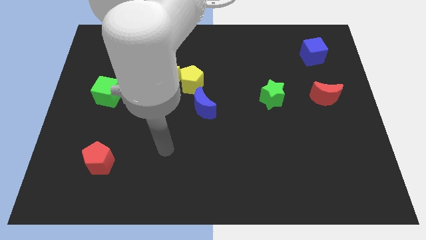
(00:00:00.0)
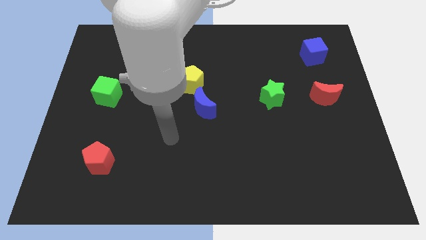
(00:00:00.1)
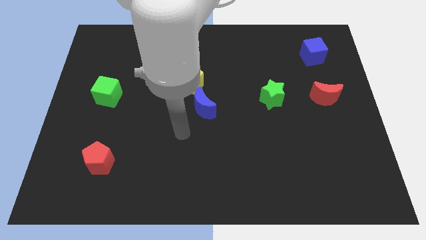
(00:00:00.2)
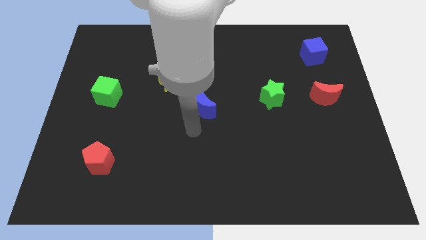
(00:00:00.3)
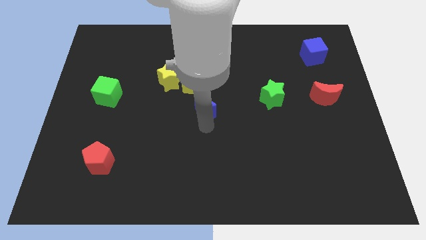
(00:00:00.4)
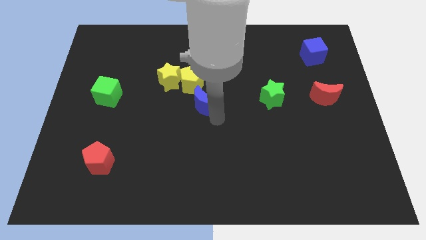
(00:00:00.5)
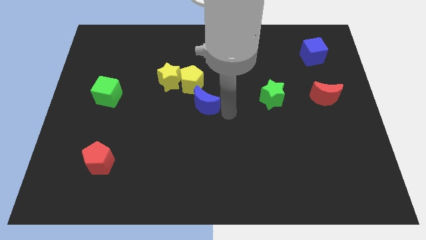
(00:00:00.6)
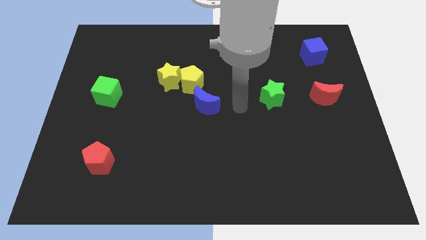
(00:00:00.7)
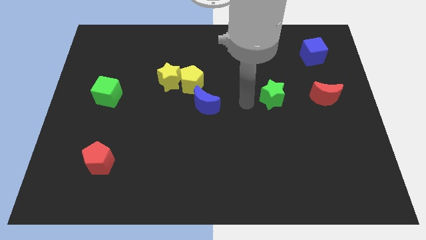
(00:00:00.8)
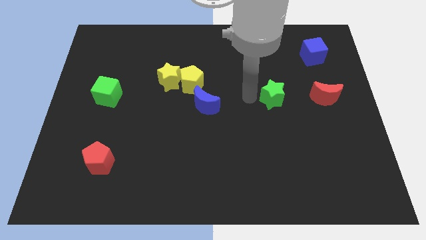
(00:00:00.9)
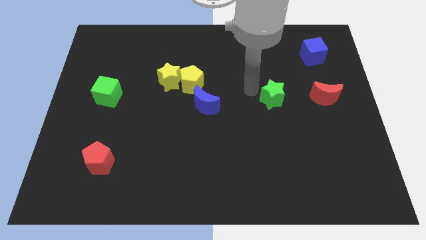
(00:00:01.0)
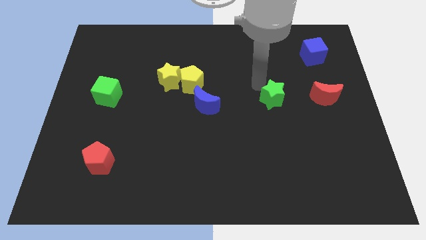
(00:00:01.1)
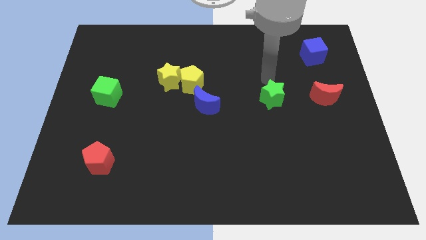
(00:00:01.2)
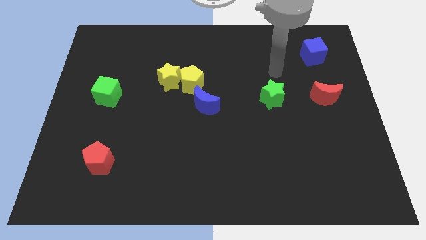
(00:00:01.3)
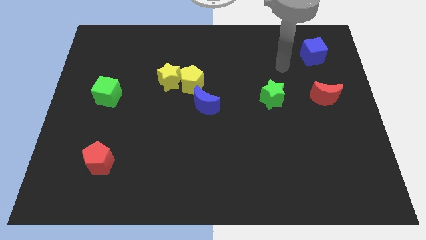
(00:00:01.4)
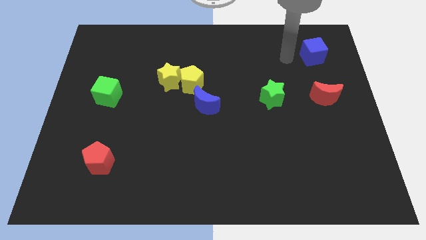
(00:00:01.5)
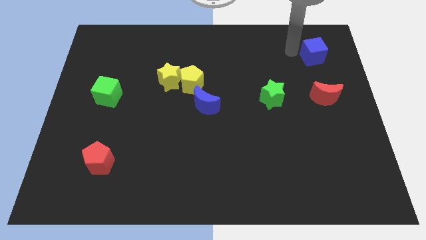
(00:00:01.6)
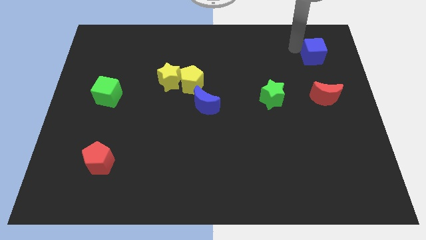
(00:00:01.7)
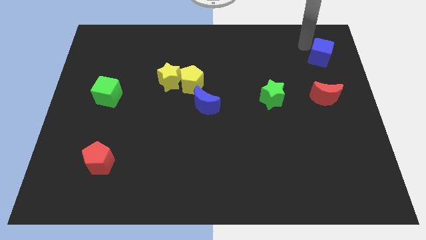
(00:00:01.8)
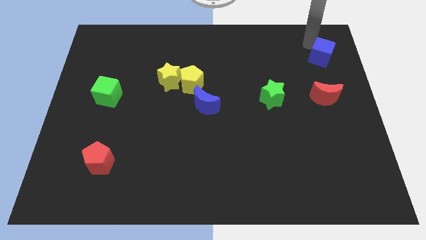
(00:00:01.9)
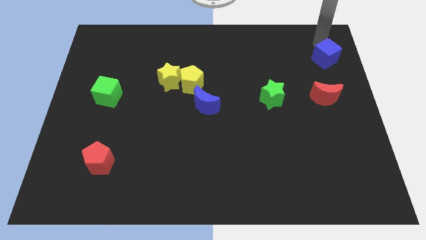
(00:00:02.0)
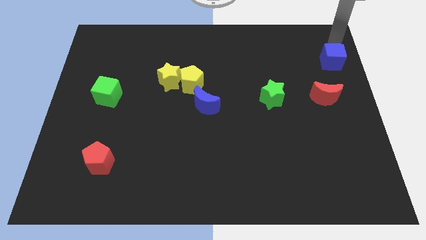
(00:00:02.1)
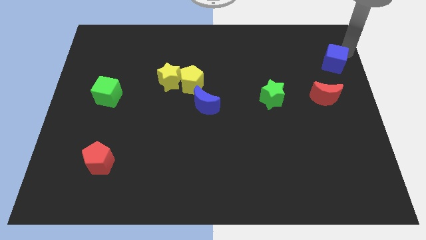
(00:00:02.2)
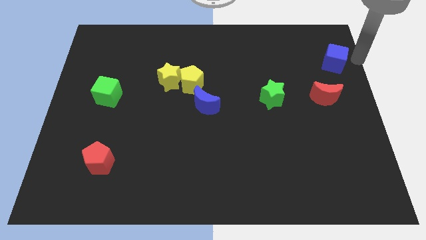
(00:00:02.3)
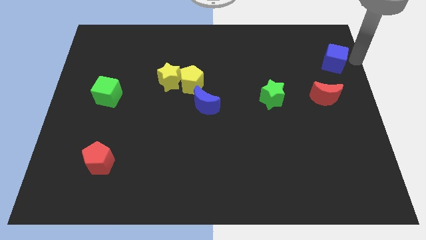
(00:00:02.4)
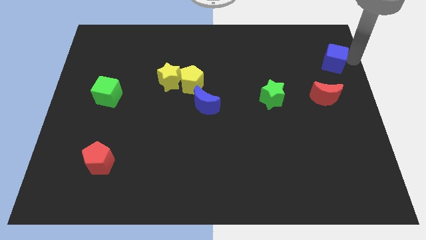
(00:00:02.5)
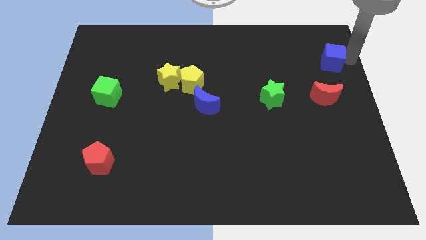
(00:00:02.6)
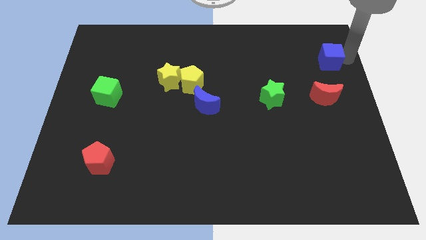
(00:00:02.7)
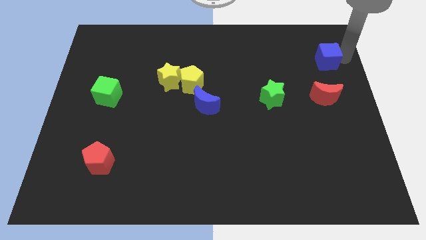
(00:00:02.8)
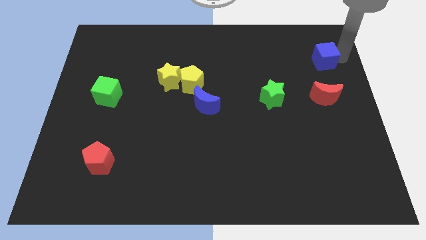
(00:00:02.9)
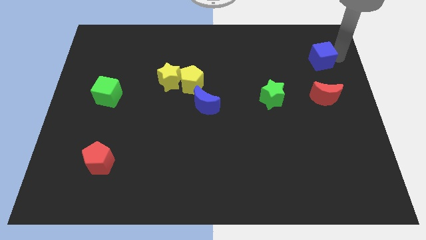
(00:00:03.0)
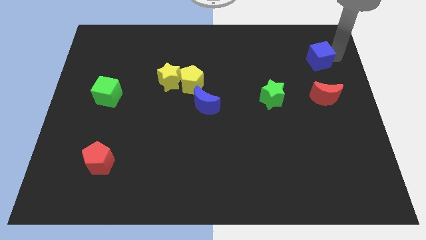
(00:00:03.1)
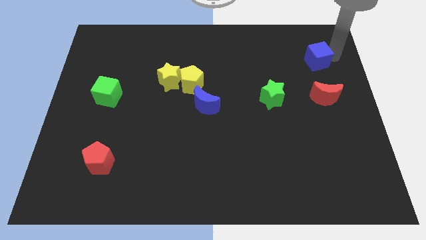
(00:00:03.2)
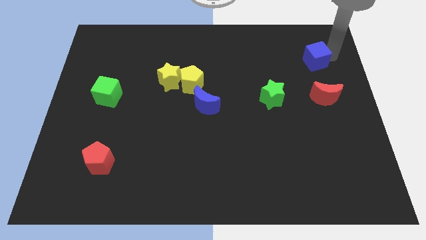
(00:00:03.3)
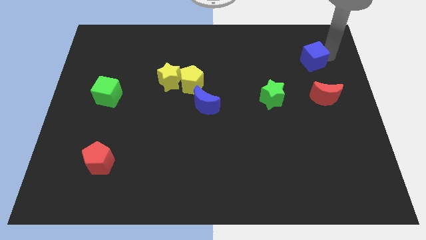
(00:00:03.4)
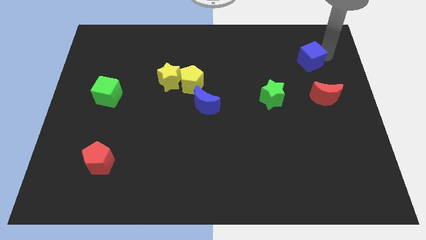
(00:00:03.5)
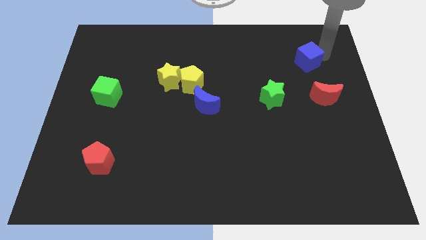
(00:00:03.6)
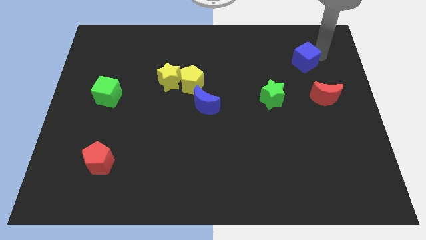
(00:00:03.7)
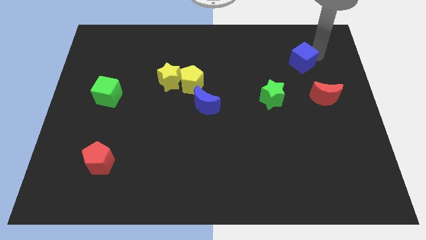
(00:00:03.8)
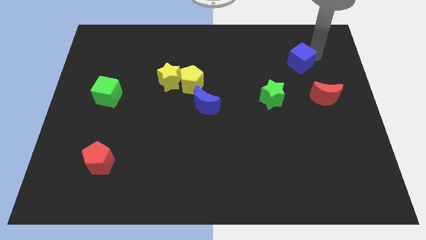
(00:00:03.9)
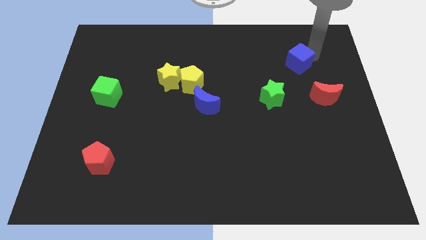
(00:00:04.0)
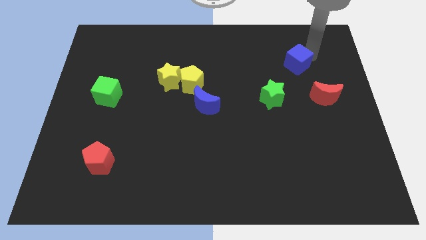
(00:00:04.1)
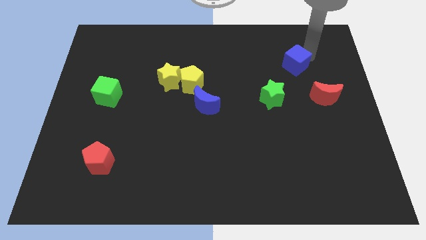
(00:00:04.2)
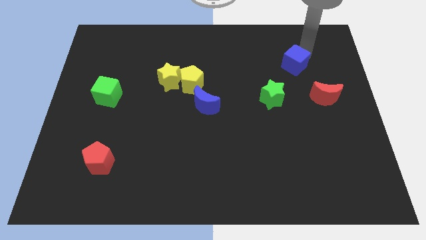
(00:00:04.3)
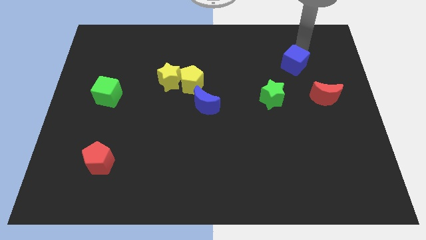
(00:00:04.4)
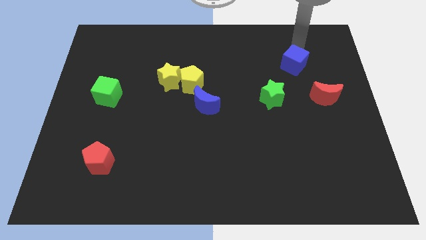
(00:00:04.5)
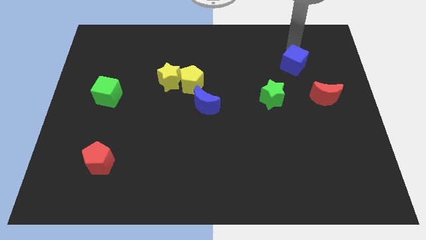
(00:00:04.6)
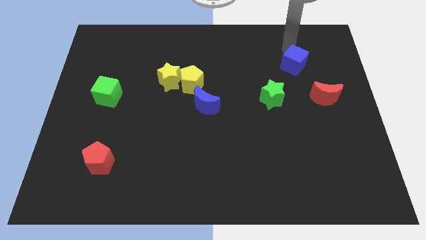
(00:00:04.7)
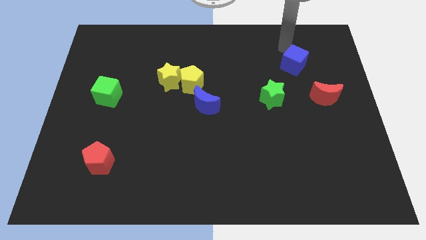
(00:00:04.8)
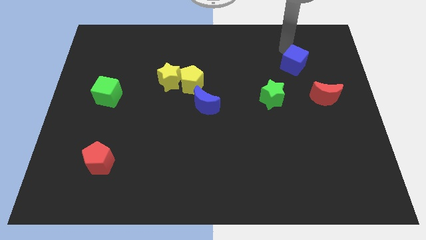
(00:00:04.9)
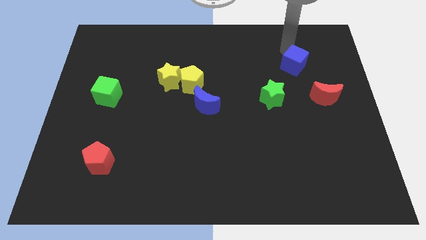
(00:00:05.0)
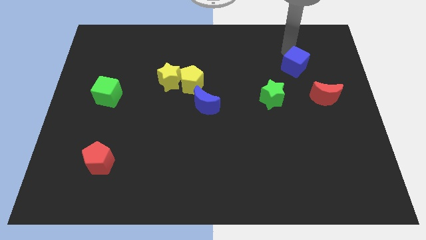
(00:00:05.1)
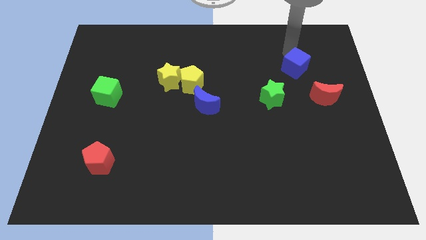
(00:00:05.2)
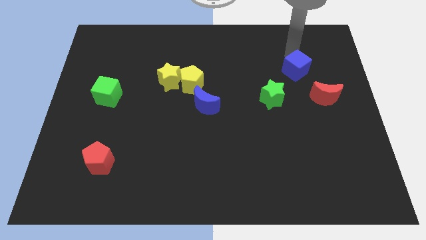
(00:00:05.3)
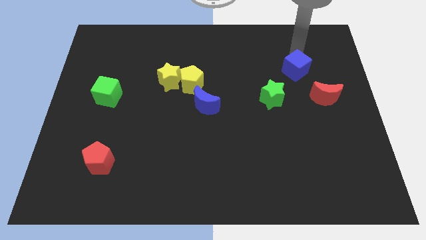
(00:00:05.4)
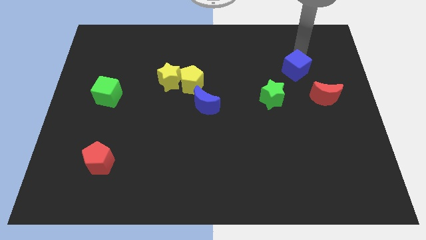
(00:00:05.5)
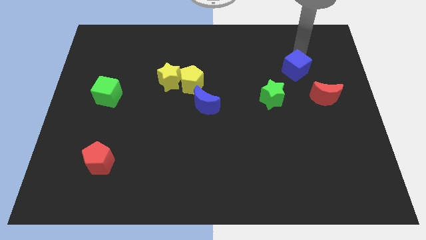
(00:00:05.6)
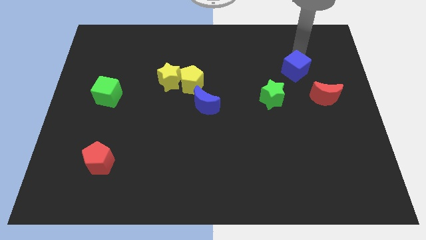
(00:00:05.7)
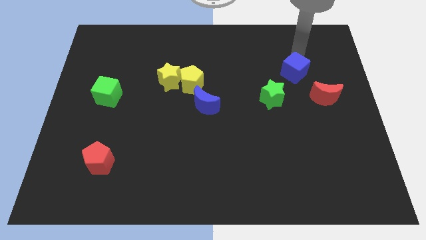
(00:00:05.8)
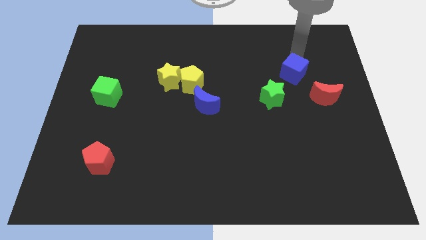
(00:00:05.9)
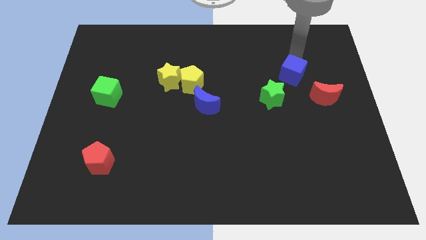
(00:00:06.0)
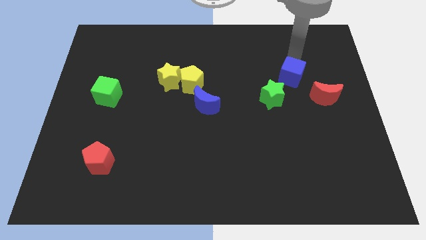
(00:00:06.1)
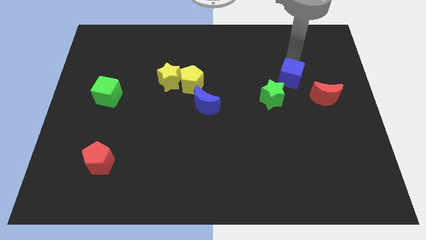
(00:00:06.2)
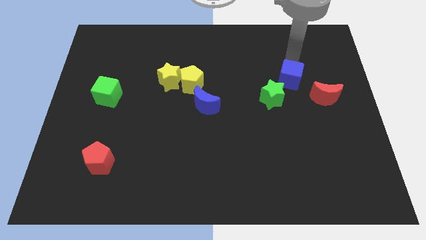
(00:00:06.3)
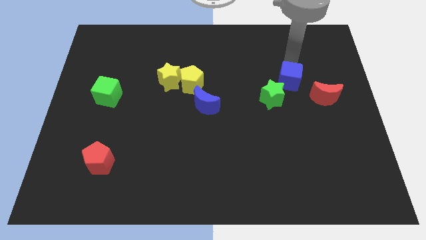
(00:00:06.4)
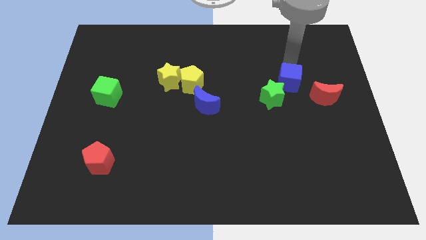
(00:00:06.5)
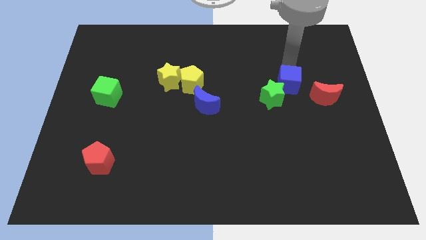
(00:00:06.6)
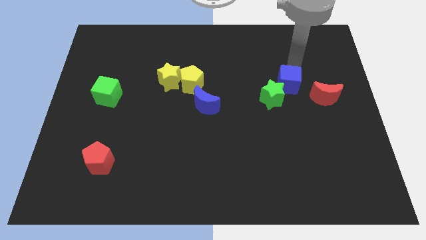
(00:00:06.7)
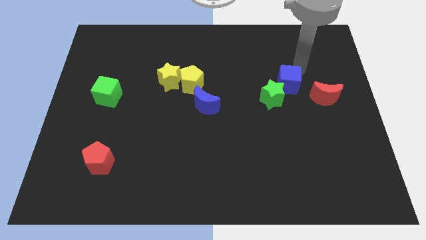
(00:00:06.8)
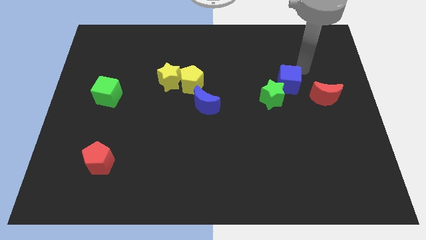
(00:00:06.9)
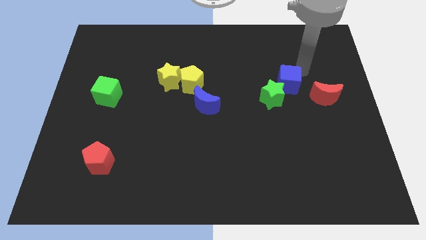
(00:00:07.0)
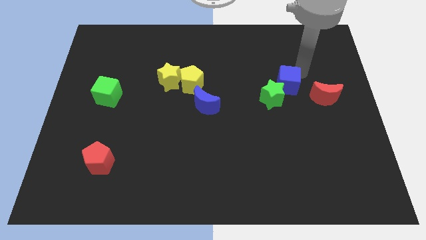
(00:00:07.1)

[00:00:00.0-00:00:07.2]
move the blue cube towards the green star

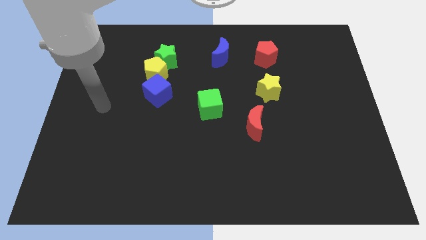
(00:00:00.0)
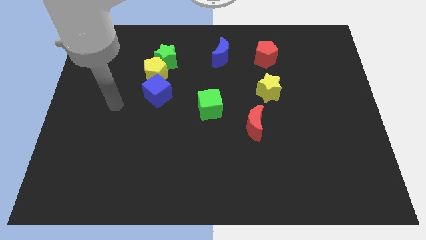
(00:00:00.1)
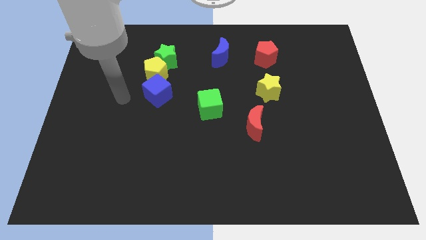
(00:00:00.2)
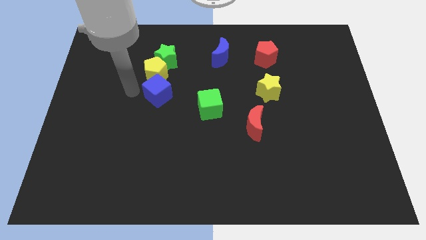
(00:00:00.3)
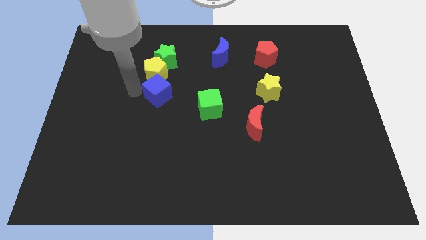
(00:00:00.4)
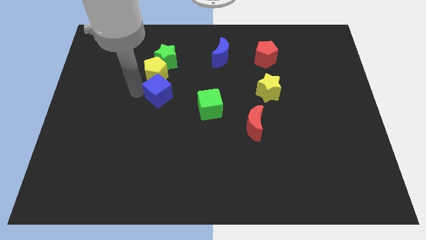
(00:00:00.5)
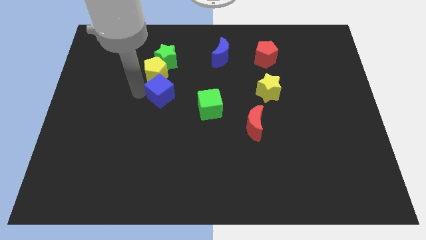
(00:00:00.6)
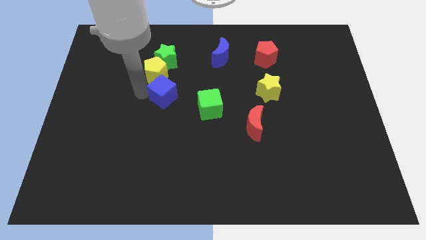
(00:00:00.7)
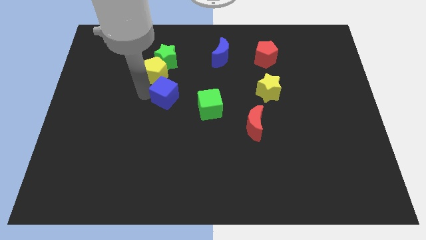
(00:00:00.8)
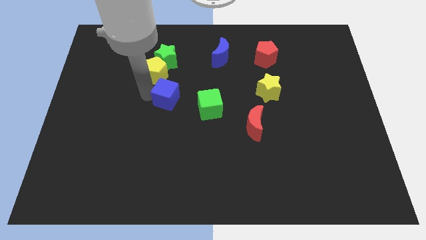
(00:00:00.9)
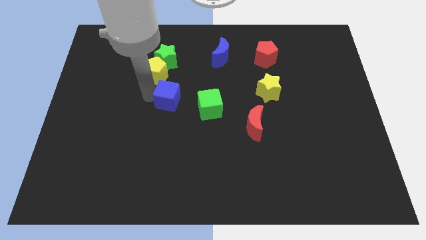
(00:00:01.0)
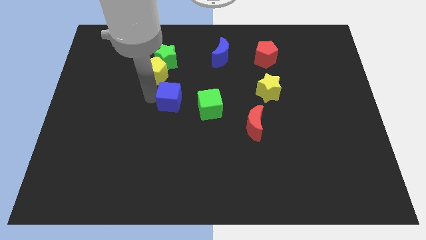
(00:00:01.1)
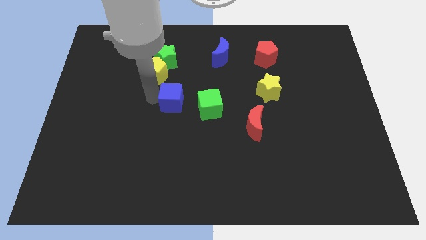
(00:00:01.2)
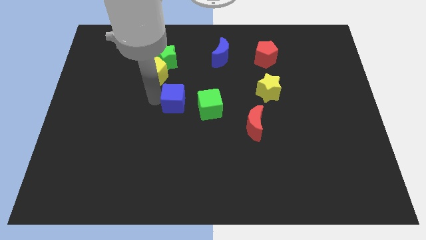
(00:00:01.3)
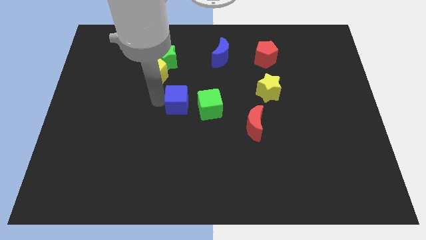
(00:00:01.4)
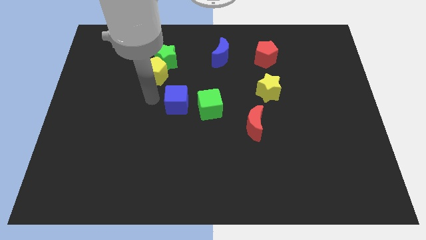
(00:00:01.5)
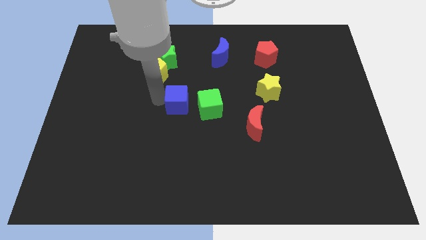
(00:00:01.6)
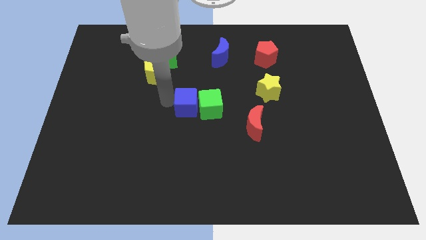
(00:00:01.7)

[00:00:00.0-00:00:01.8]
slide the blue cube close to the green cube
